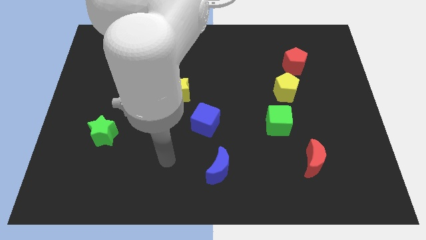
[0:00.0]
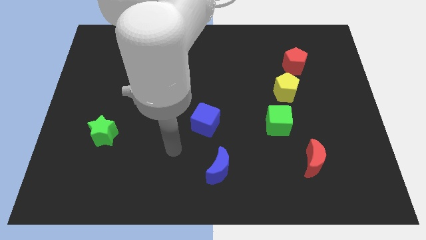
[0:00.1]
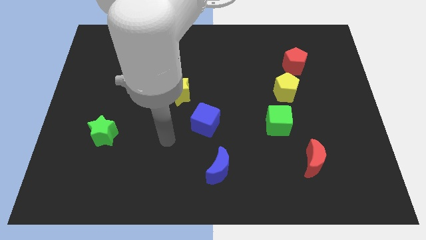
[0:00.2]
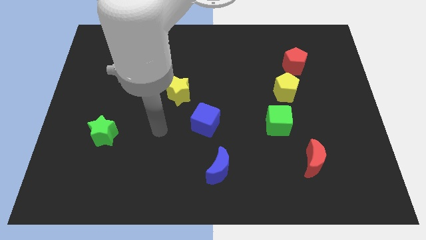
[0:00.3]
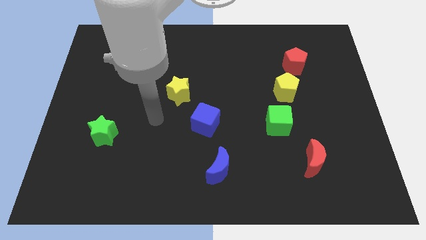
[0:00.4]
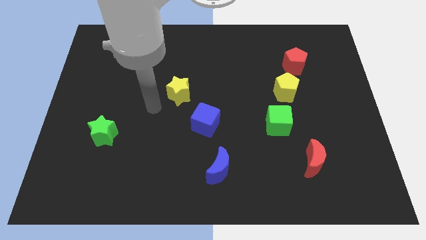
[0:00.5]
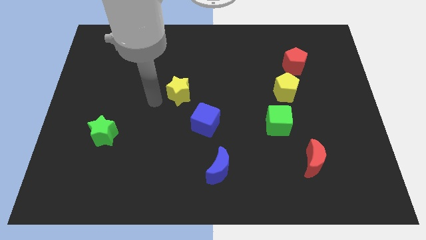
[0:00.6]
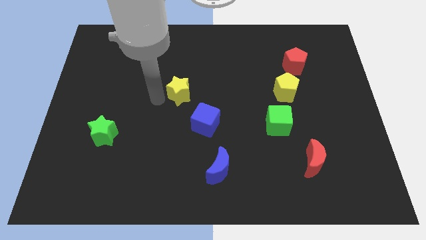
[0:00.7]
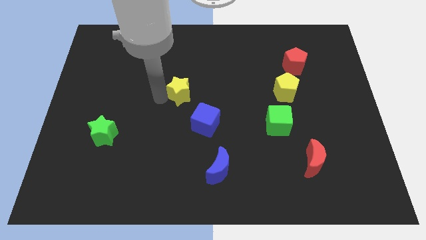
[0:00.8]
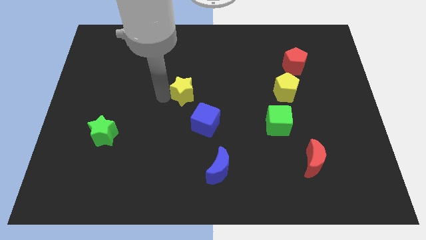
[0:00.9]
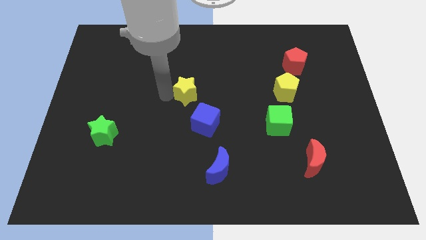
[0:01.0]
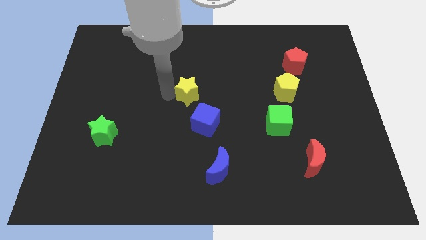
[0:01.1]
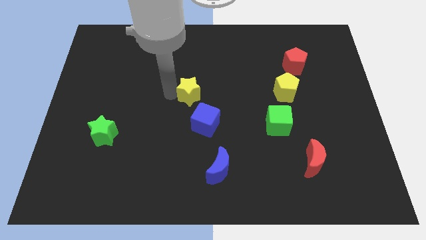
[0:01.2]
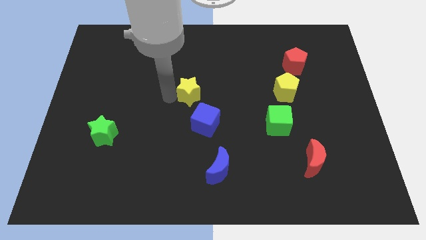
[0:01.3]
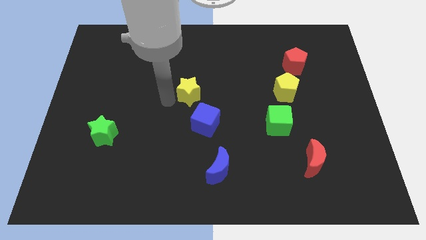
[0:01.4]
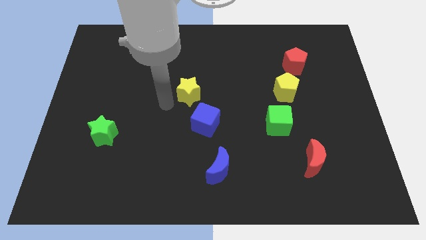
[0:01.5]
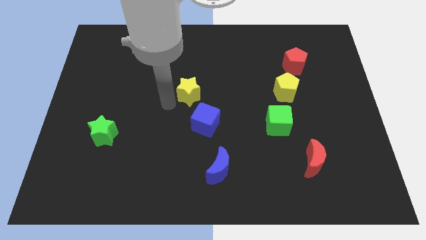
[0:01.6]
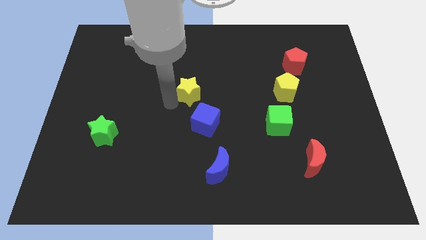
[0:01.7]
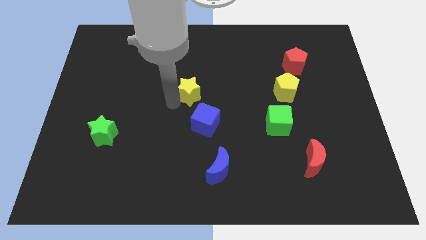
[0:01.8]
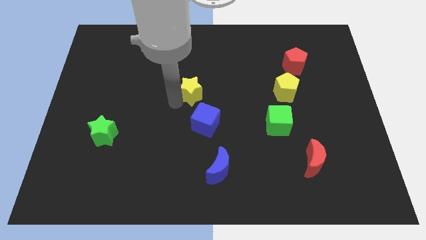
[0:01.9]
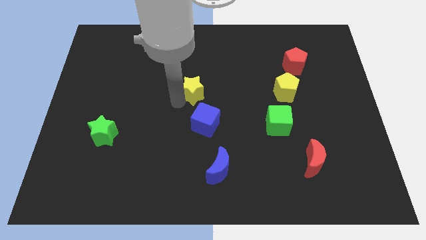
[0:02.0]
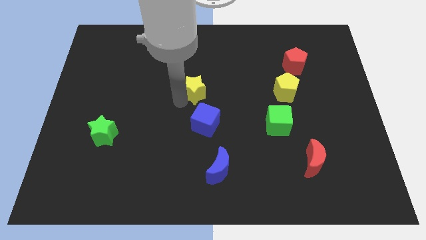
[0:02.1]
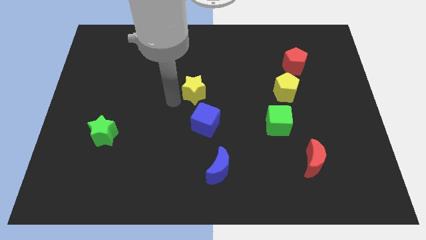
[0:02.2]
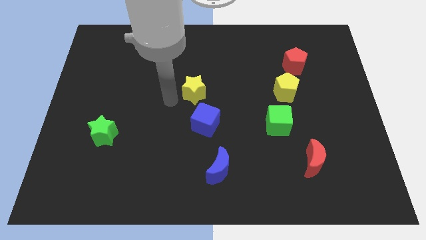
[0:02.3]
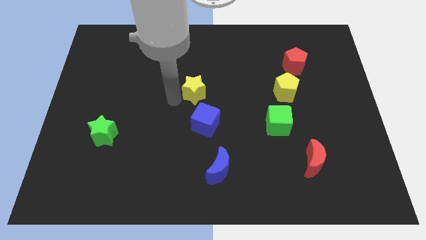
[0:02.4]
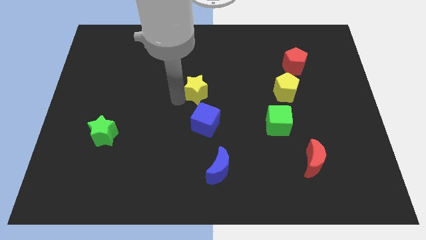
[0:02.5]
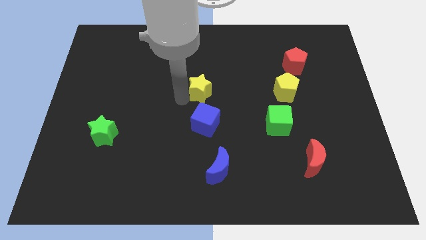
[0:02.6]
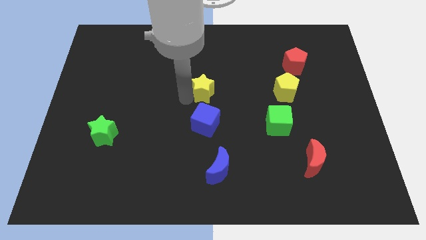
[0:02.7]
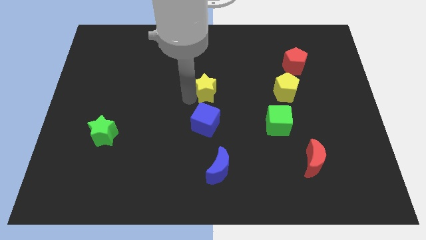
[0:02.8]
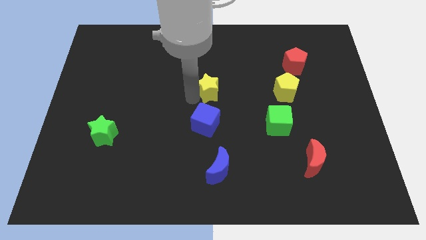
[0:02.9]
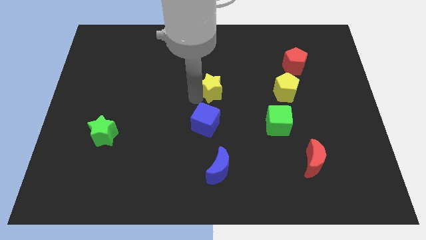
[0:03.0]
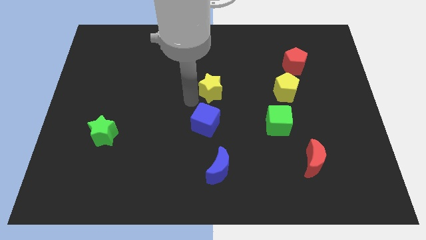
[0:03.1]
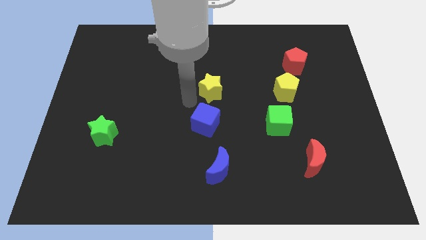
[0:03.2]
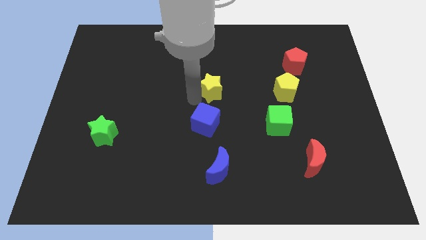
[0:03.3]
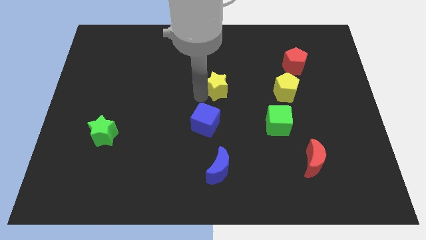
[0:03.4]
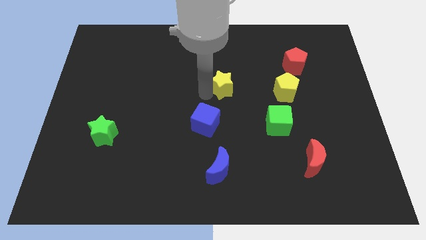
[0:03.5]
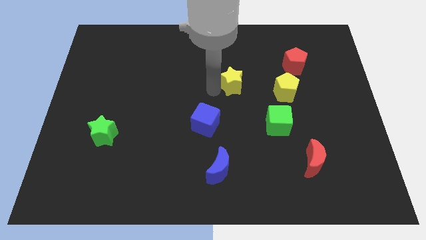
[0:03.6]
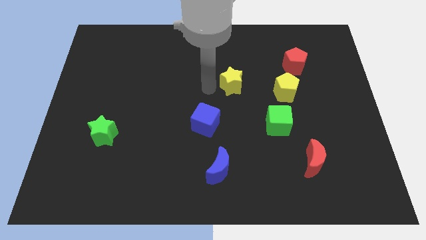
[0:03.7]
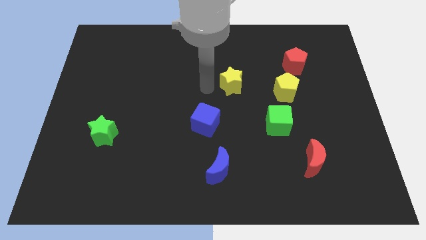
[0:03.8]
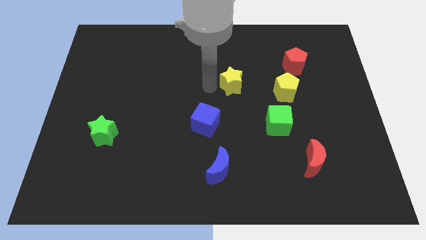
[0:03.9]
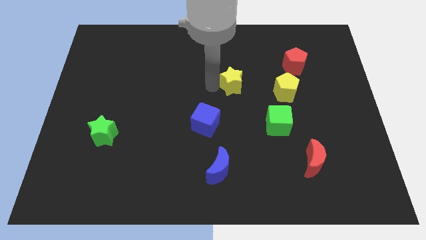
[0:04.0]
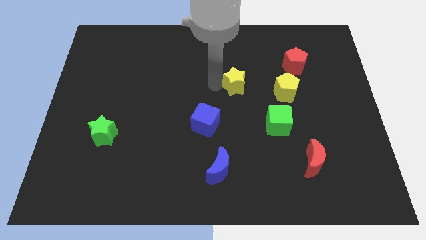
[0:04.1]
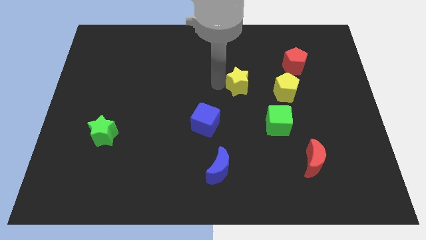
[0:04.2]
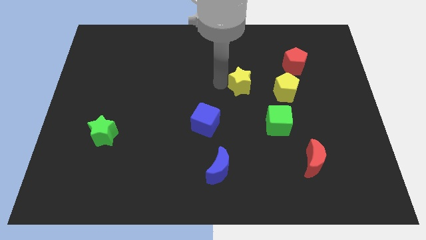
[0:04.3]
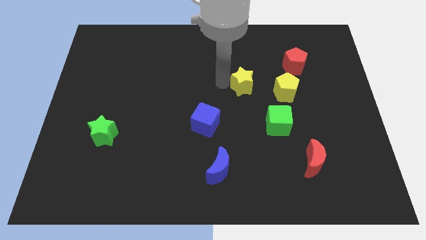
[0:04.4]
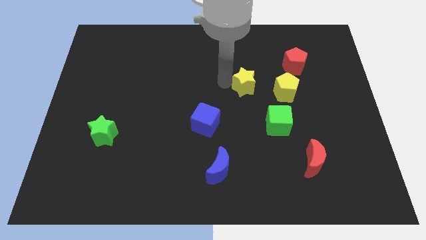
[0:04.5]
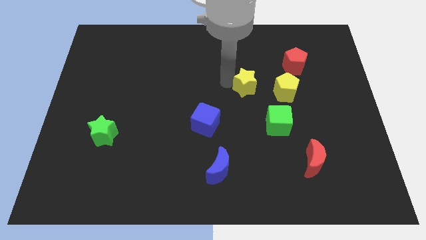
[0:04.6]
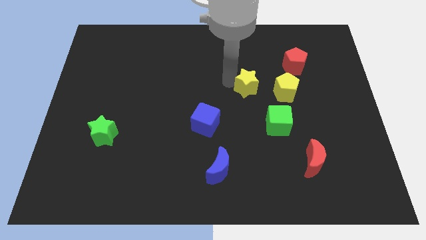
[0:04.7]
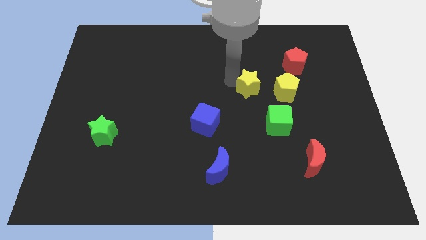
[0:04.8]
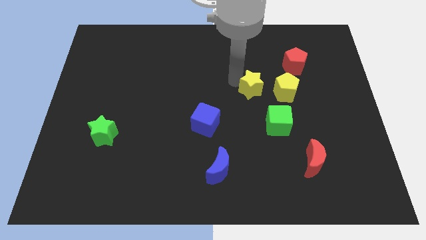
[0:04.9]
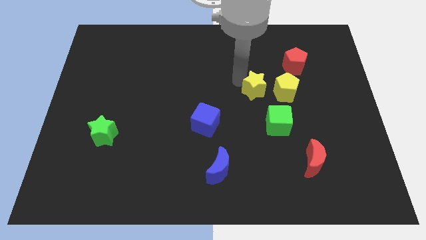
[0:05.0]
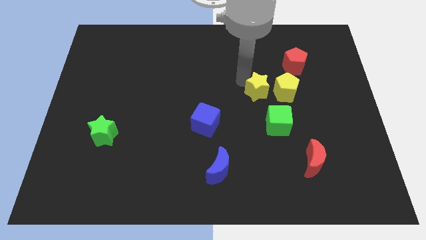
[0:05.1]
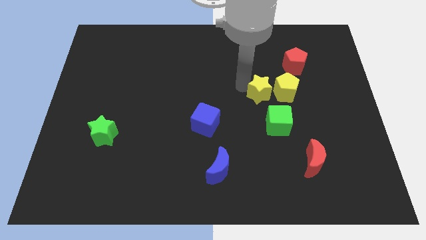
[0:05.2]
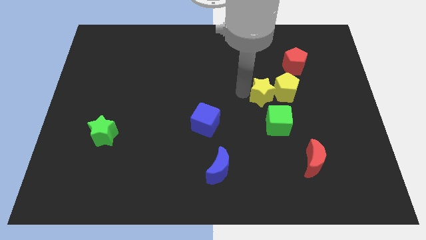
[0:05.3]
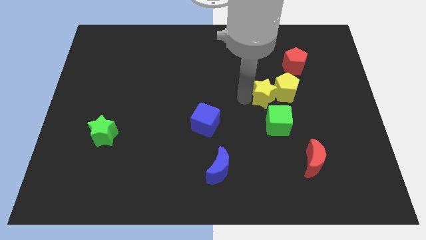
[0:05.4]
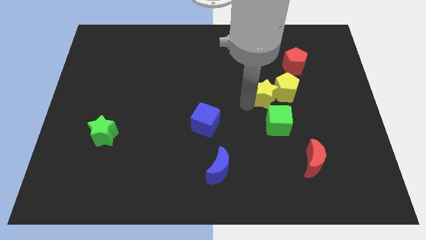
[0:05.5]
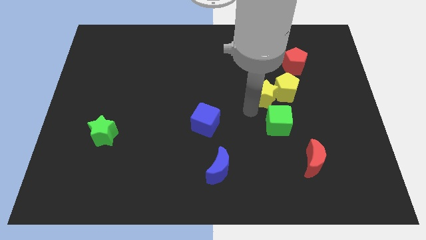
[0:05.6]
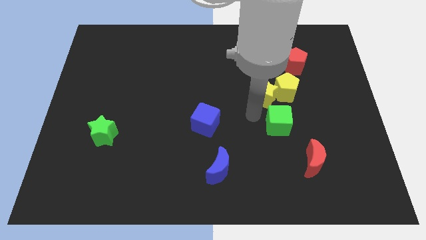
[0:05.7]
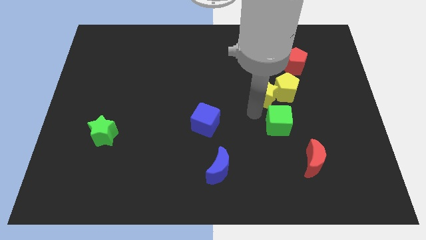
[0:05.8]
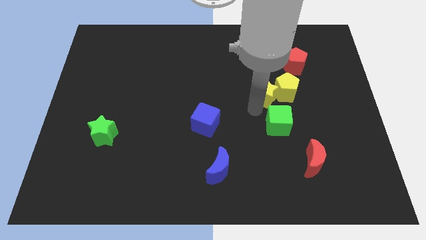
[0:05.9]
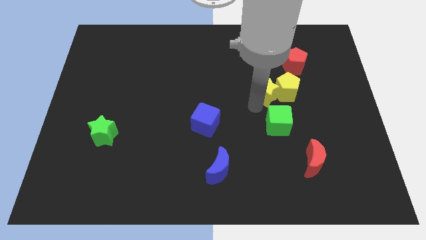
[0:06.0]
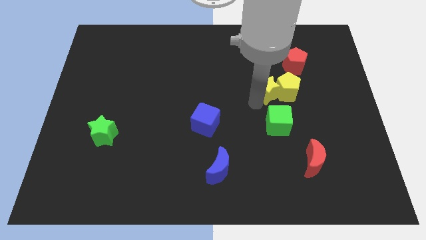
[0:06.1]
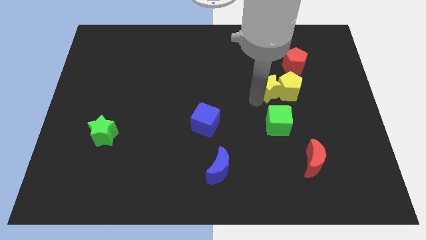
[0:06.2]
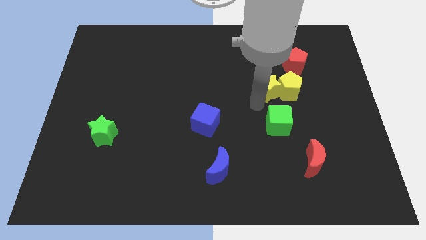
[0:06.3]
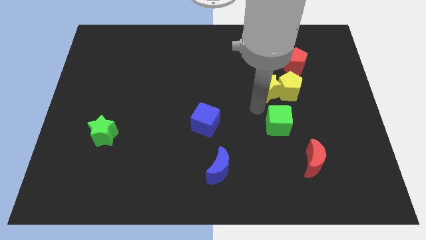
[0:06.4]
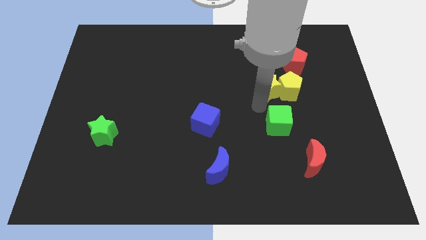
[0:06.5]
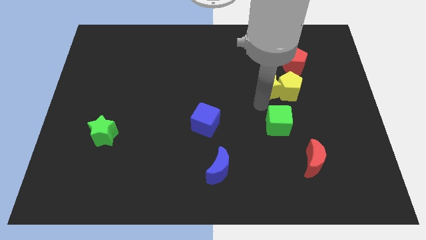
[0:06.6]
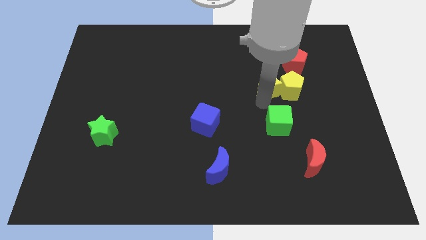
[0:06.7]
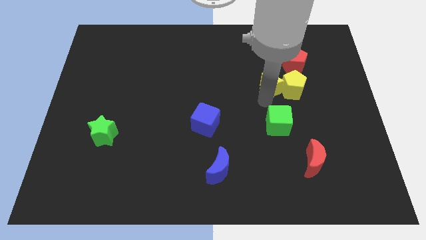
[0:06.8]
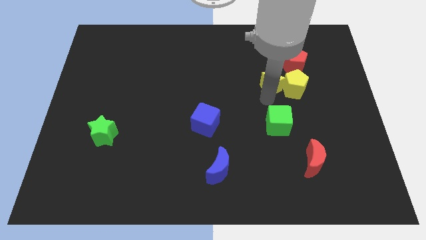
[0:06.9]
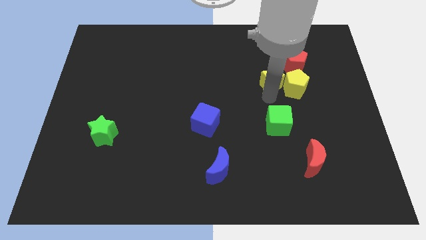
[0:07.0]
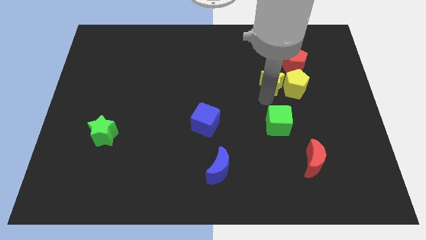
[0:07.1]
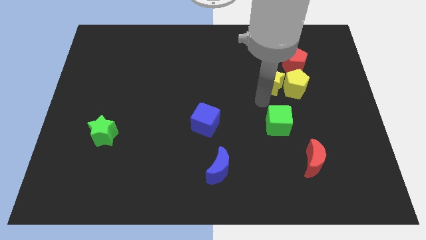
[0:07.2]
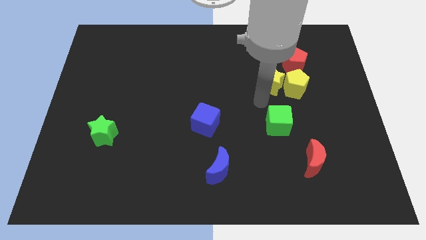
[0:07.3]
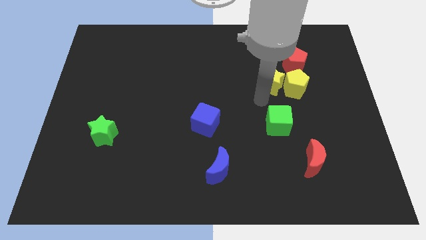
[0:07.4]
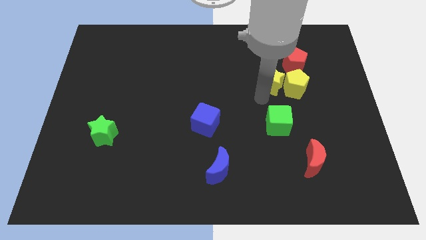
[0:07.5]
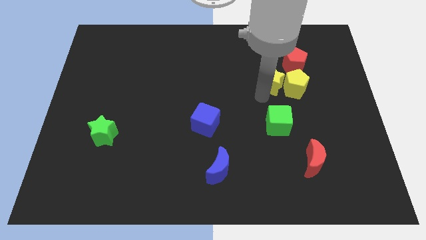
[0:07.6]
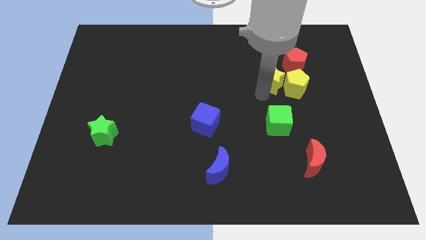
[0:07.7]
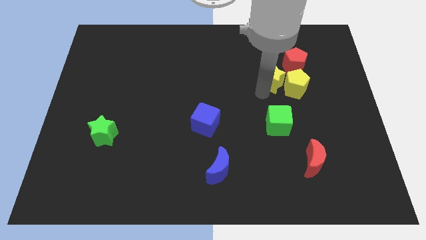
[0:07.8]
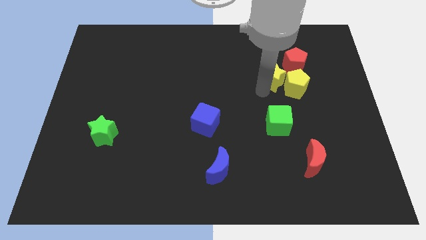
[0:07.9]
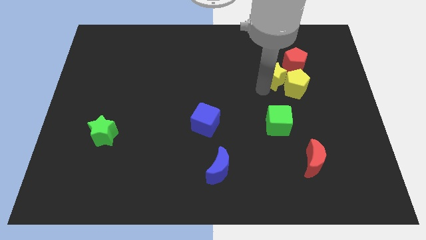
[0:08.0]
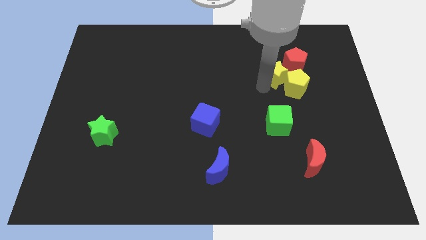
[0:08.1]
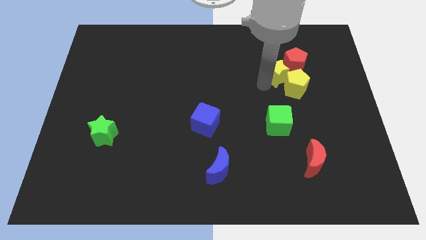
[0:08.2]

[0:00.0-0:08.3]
move the yellow star close to the red pentagon
